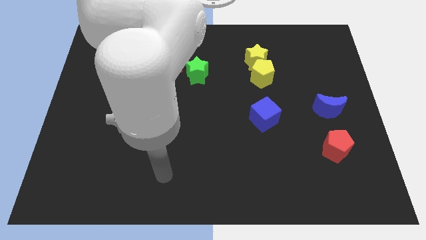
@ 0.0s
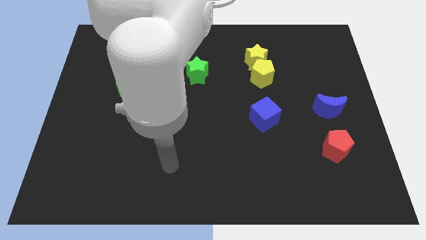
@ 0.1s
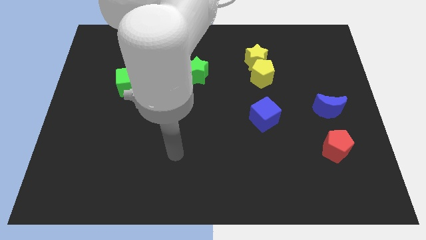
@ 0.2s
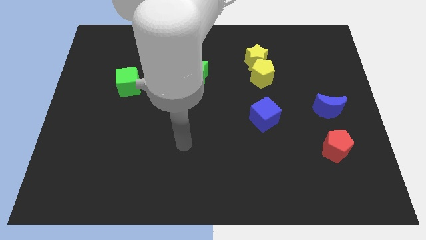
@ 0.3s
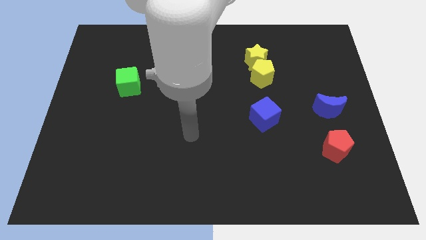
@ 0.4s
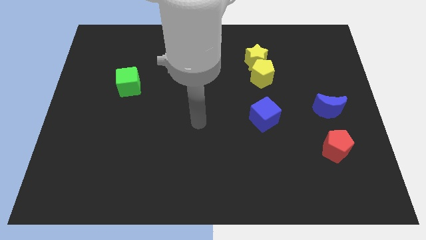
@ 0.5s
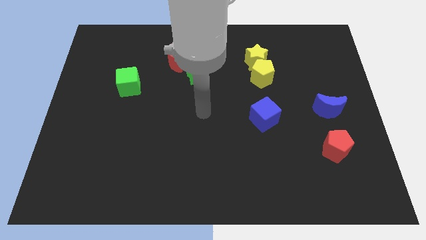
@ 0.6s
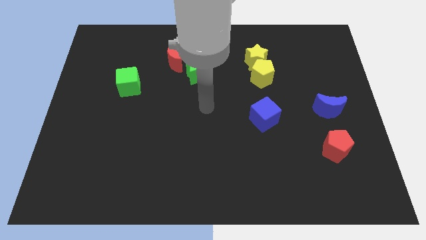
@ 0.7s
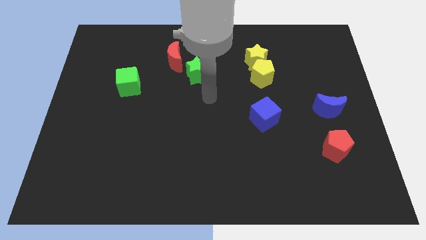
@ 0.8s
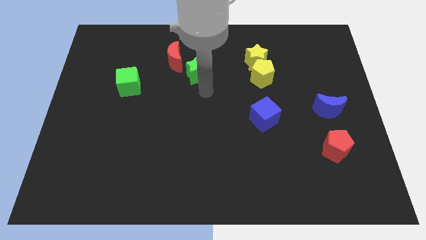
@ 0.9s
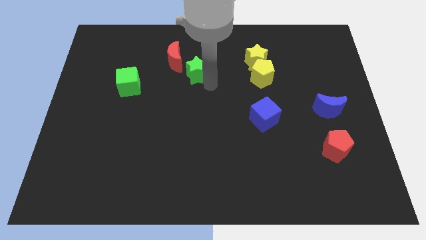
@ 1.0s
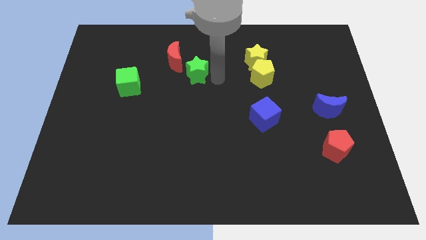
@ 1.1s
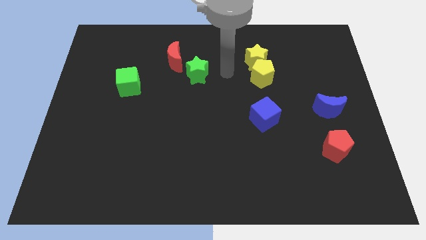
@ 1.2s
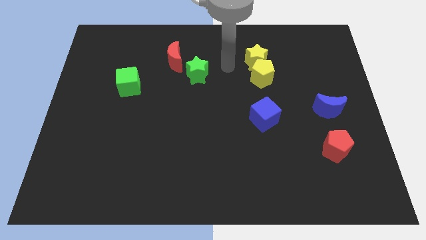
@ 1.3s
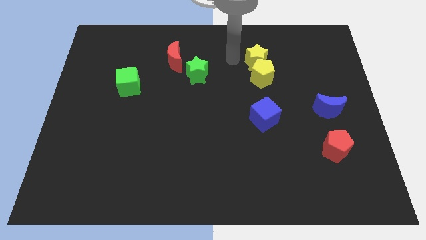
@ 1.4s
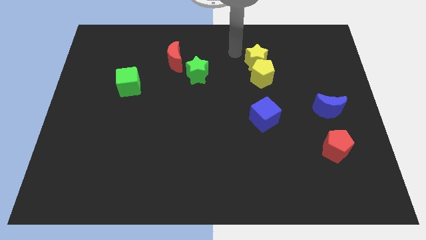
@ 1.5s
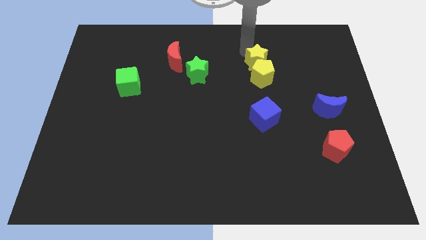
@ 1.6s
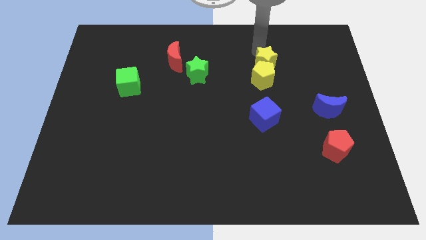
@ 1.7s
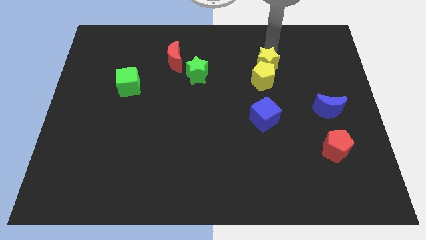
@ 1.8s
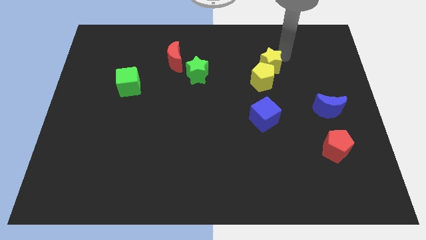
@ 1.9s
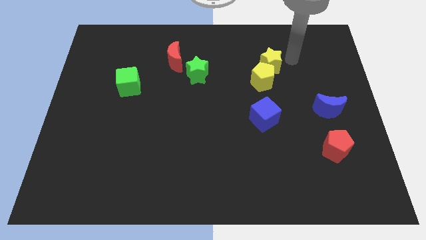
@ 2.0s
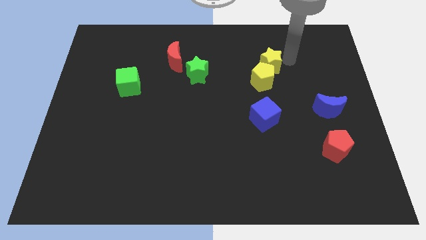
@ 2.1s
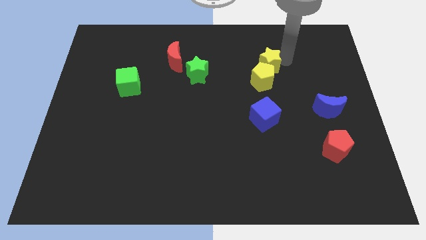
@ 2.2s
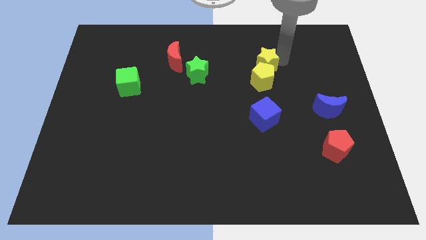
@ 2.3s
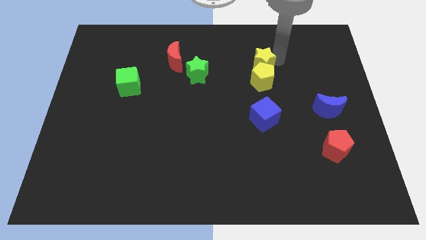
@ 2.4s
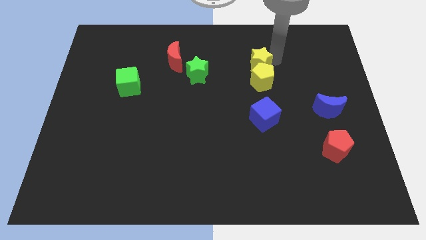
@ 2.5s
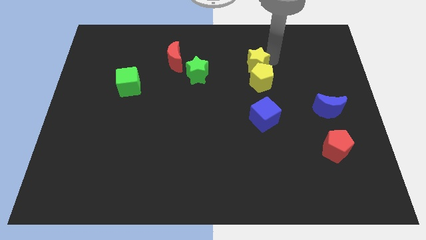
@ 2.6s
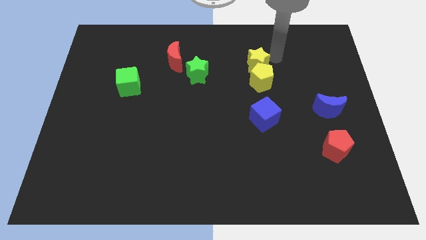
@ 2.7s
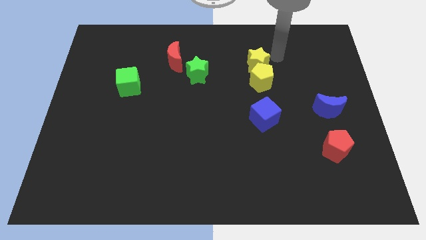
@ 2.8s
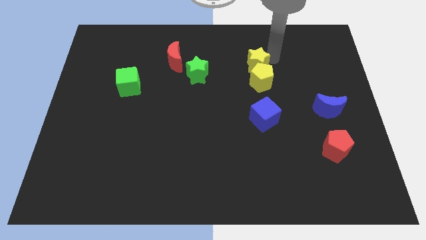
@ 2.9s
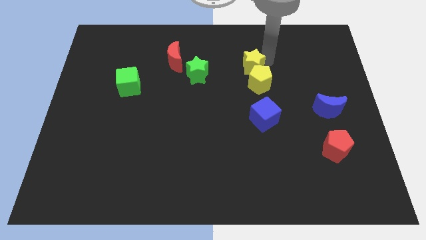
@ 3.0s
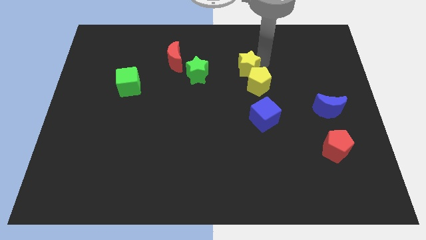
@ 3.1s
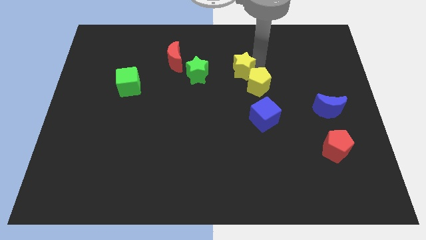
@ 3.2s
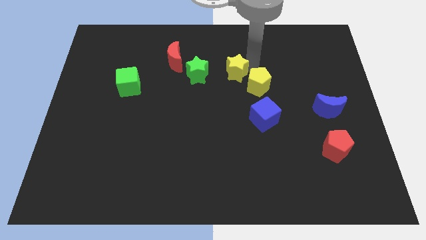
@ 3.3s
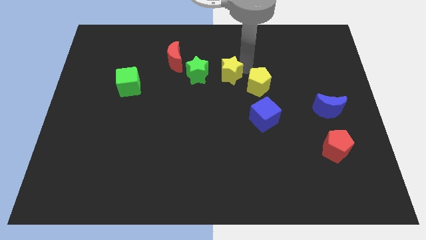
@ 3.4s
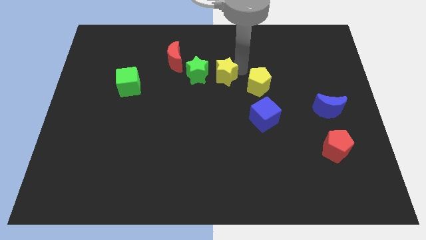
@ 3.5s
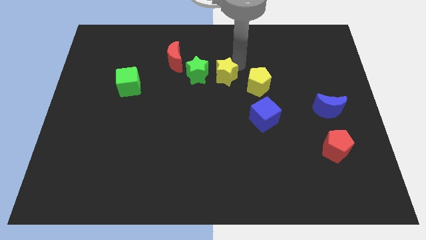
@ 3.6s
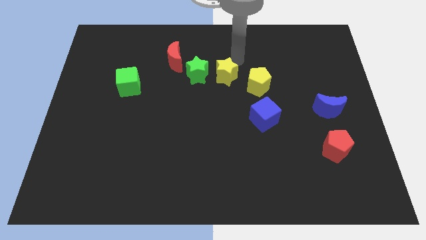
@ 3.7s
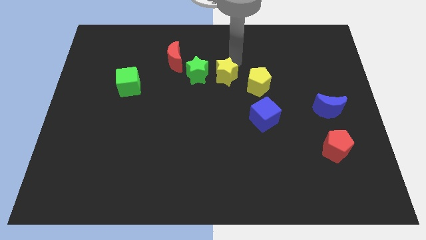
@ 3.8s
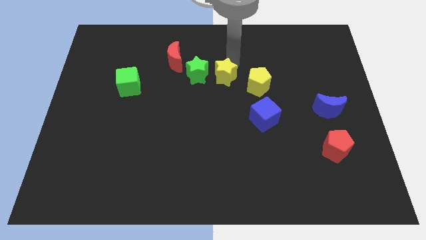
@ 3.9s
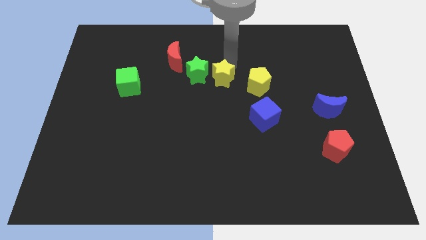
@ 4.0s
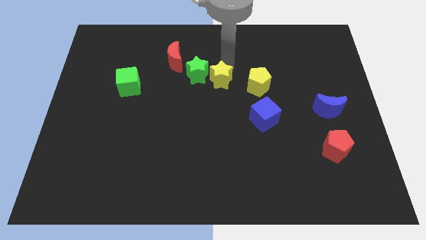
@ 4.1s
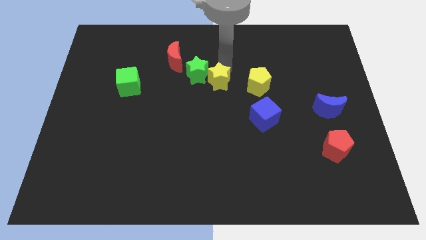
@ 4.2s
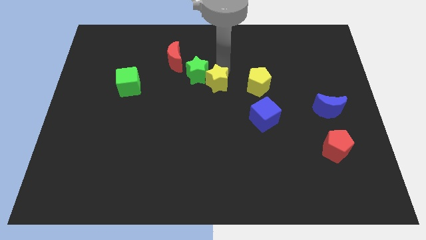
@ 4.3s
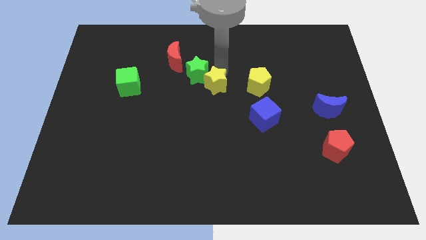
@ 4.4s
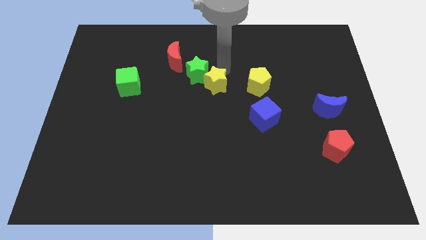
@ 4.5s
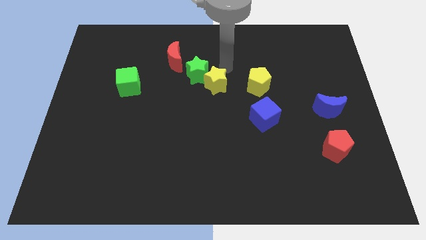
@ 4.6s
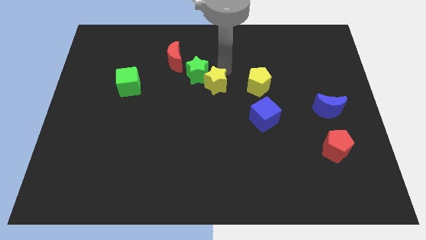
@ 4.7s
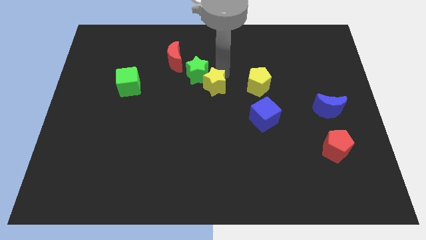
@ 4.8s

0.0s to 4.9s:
push the yellow star below the green star

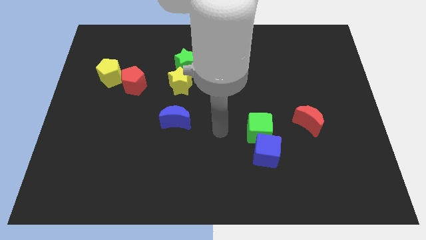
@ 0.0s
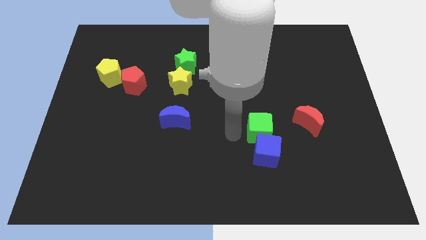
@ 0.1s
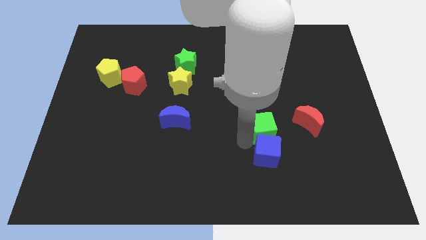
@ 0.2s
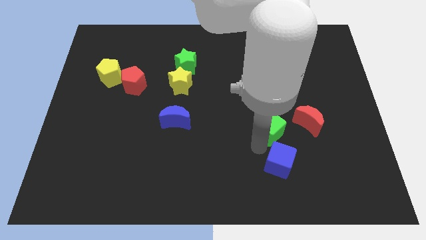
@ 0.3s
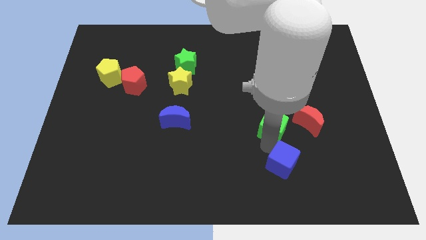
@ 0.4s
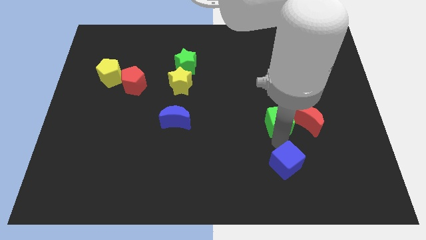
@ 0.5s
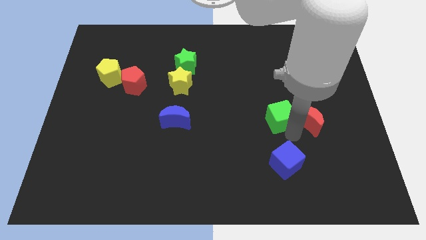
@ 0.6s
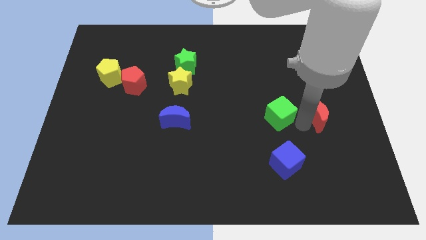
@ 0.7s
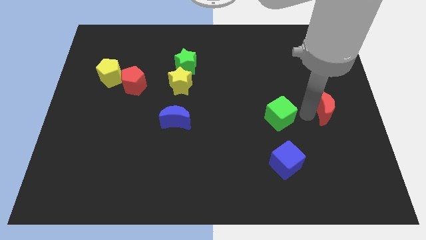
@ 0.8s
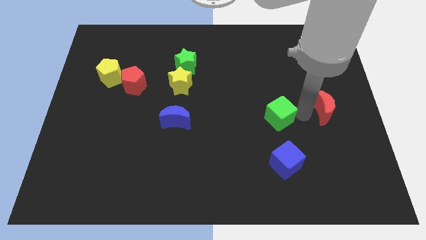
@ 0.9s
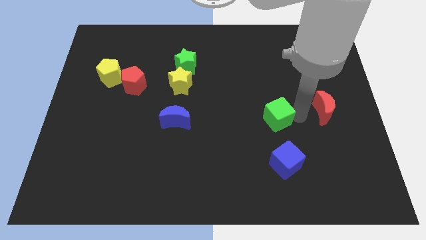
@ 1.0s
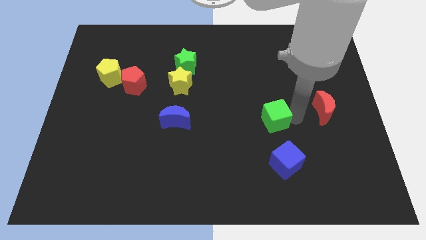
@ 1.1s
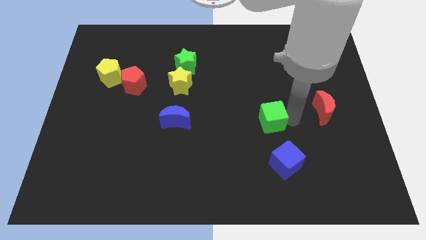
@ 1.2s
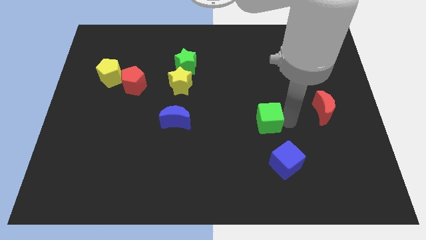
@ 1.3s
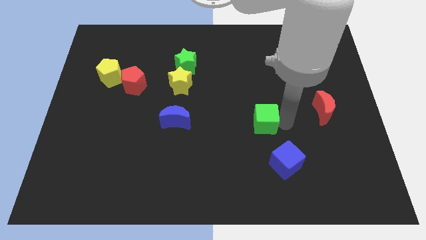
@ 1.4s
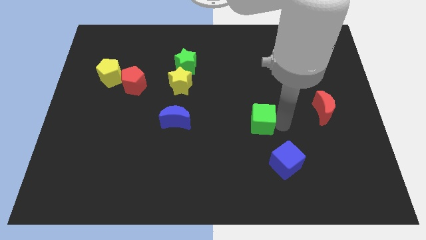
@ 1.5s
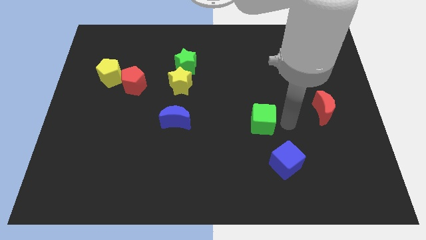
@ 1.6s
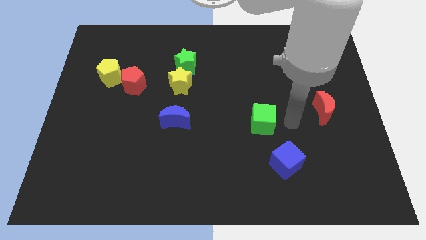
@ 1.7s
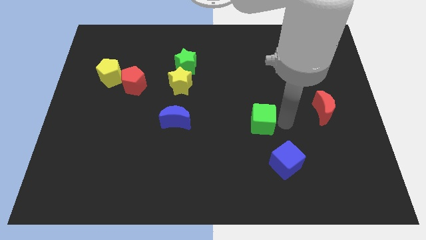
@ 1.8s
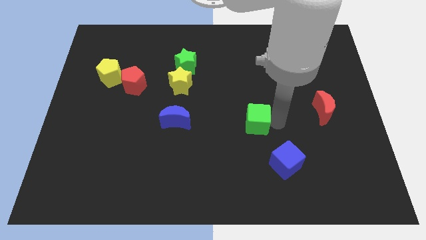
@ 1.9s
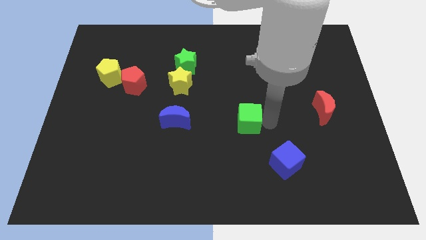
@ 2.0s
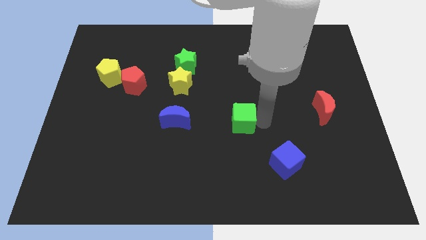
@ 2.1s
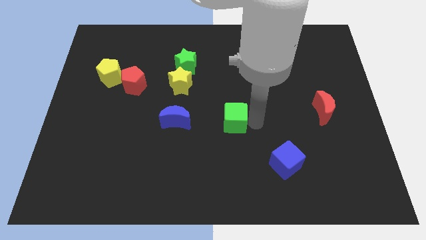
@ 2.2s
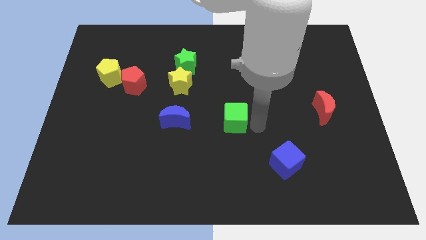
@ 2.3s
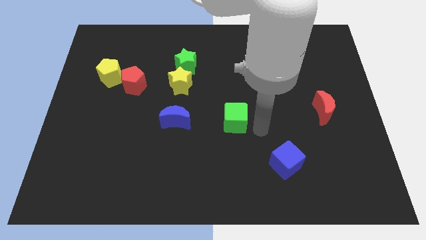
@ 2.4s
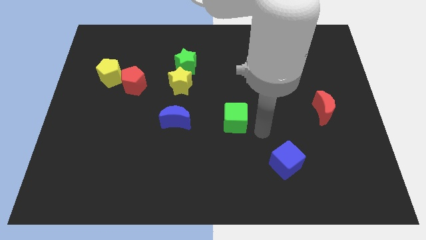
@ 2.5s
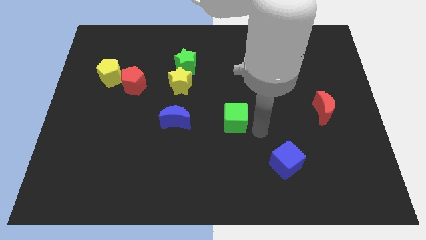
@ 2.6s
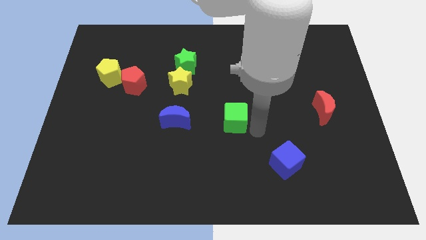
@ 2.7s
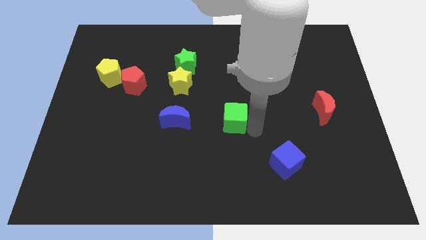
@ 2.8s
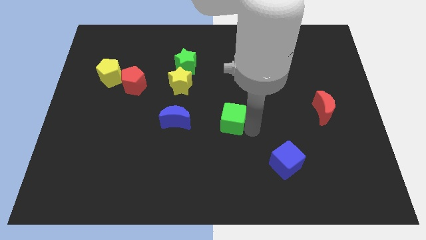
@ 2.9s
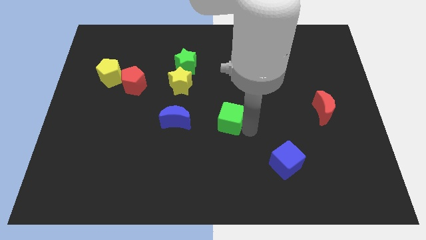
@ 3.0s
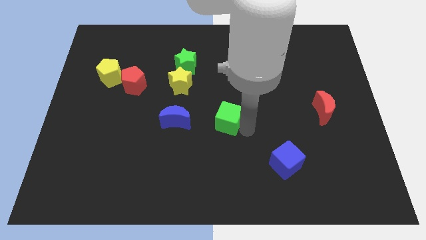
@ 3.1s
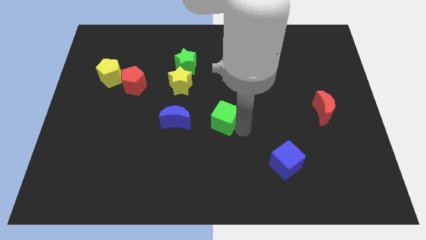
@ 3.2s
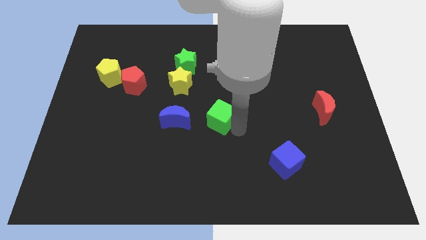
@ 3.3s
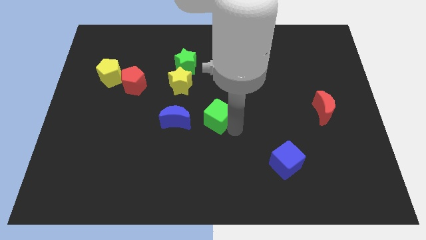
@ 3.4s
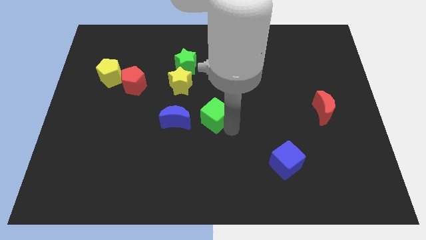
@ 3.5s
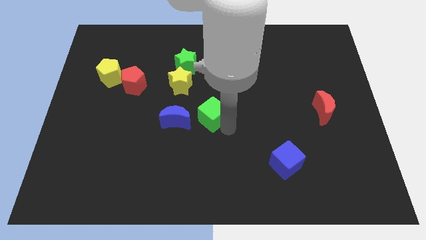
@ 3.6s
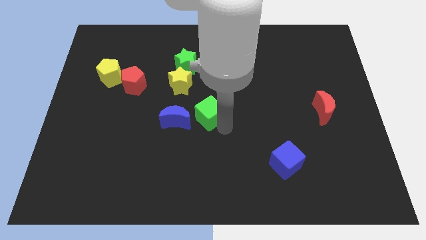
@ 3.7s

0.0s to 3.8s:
slide the green cube to the top right of the blue moon
